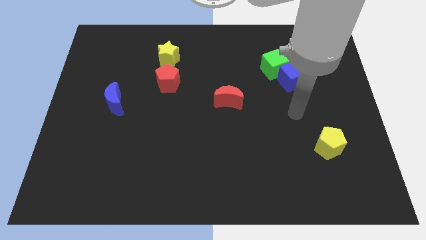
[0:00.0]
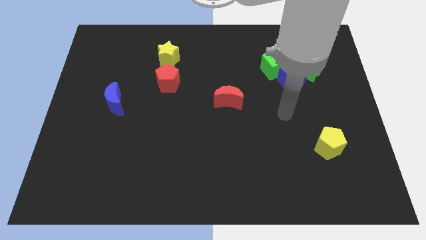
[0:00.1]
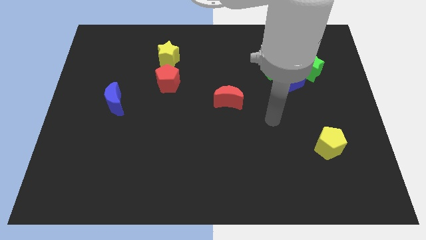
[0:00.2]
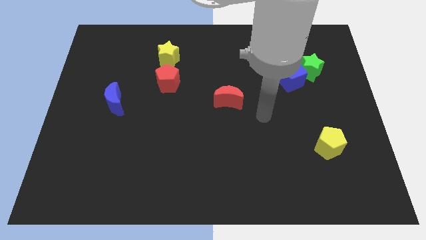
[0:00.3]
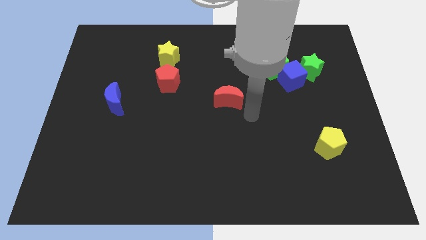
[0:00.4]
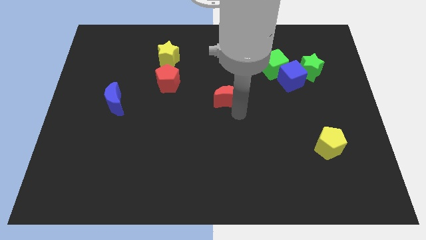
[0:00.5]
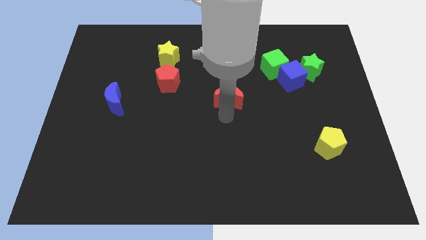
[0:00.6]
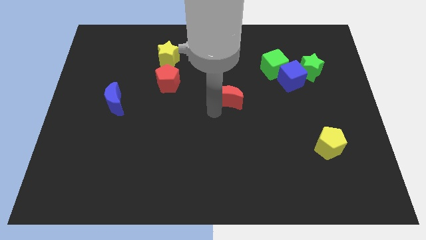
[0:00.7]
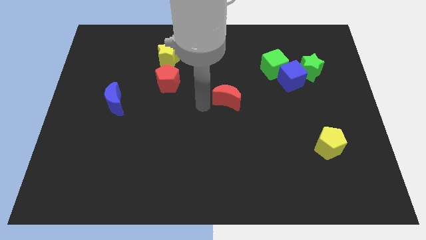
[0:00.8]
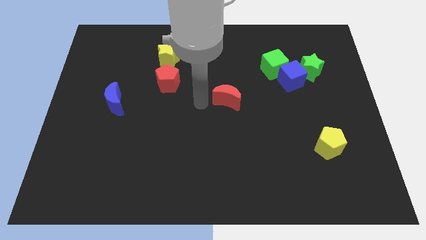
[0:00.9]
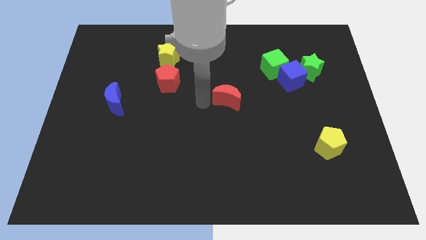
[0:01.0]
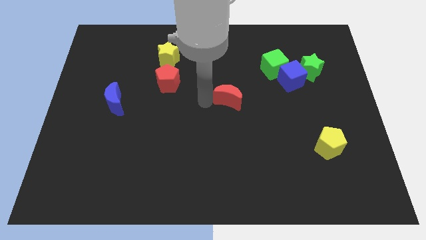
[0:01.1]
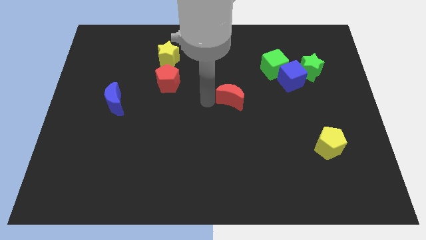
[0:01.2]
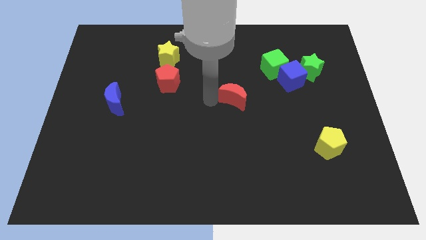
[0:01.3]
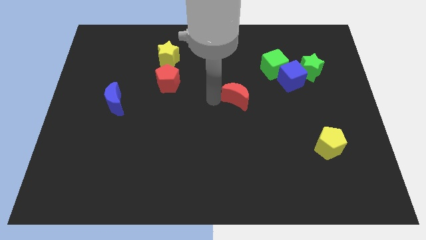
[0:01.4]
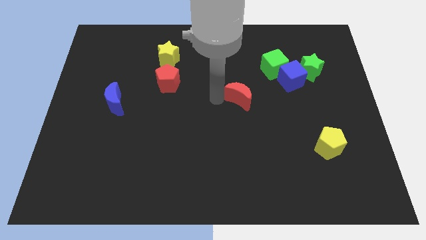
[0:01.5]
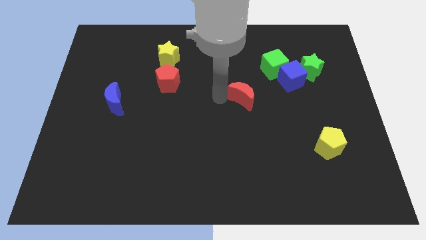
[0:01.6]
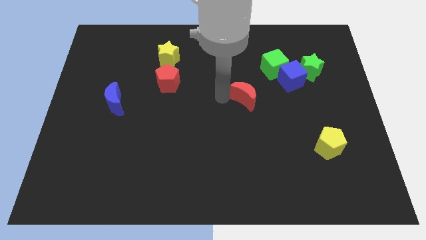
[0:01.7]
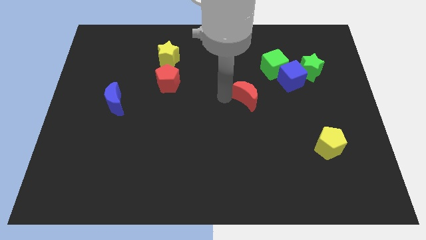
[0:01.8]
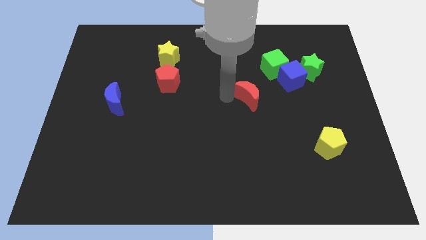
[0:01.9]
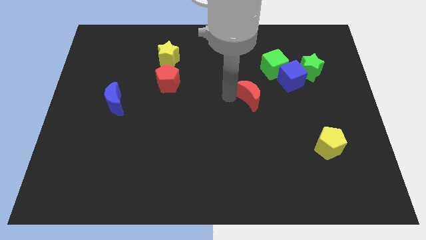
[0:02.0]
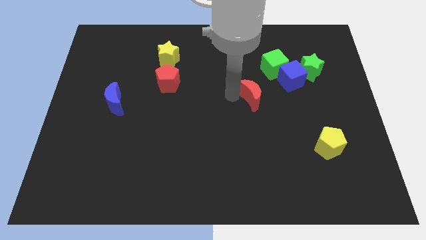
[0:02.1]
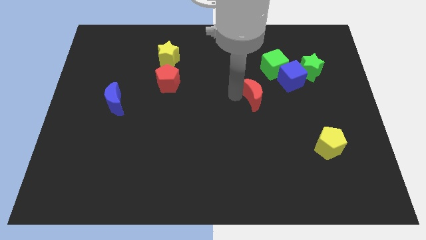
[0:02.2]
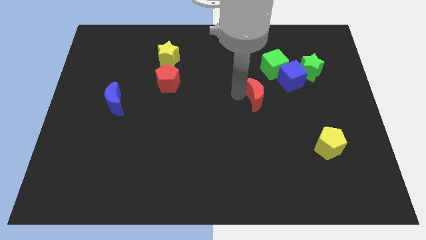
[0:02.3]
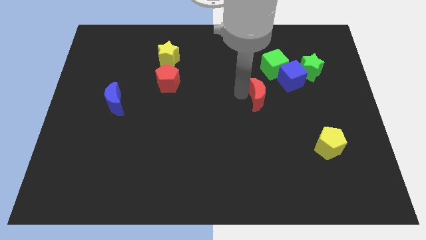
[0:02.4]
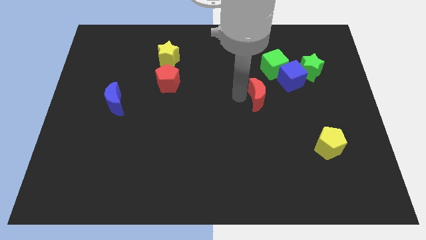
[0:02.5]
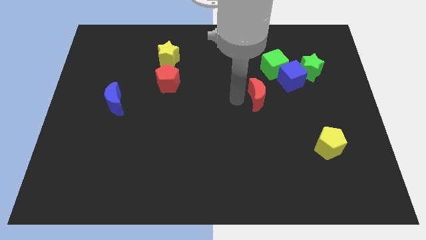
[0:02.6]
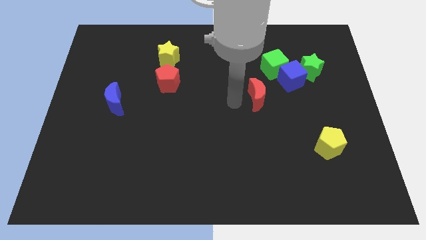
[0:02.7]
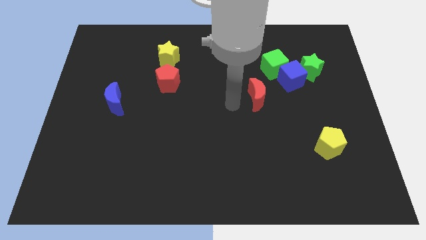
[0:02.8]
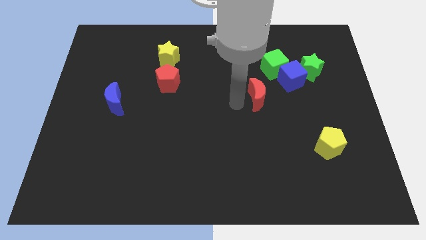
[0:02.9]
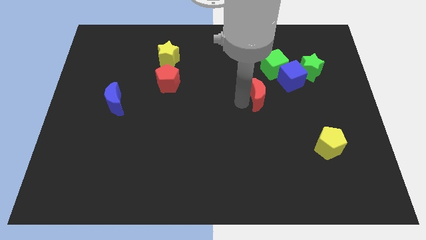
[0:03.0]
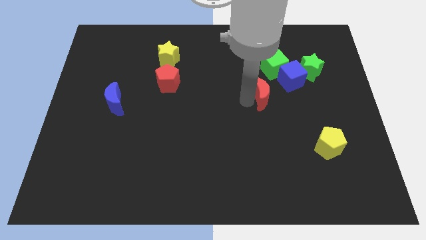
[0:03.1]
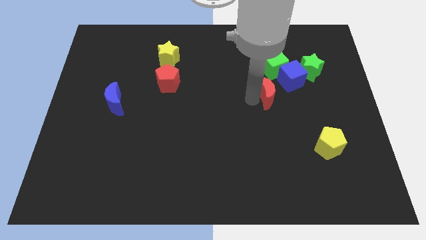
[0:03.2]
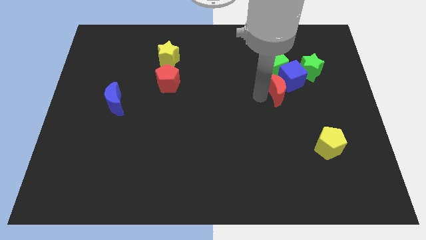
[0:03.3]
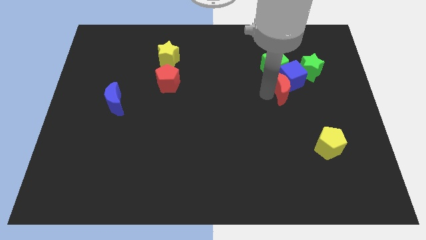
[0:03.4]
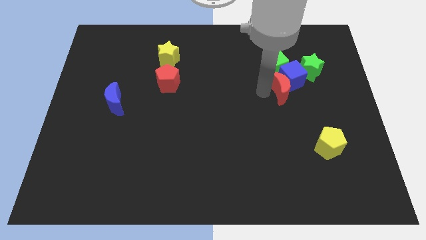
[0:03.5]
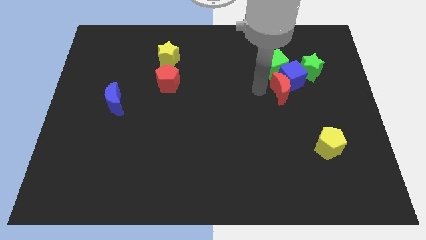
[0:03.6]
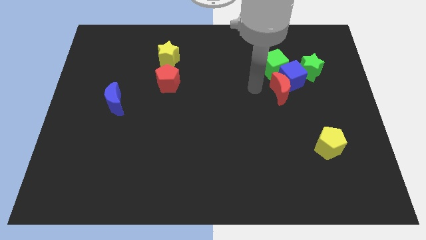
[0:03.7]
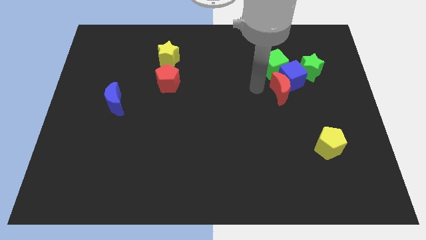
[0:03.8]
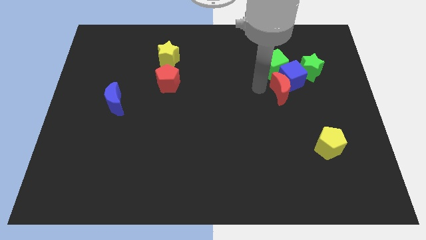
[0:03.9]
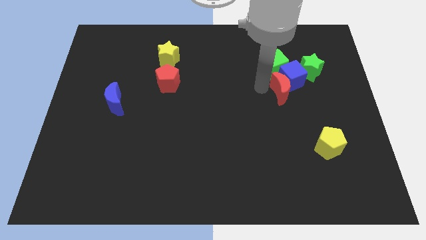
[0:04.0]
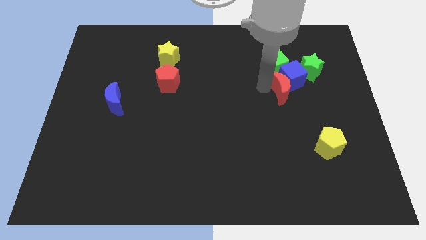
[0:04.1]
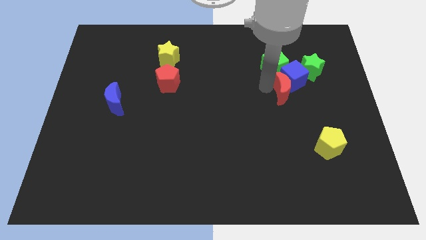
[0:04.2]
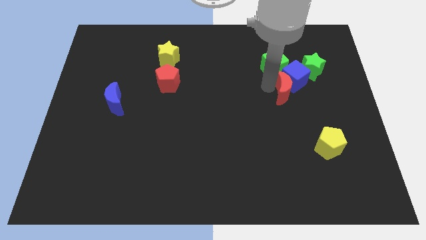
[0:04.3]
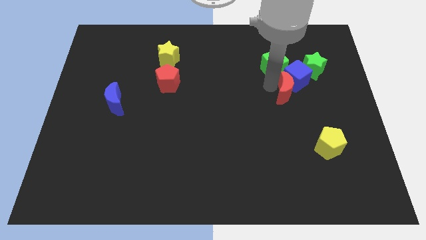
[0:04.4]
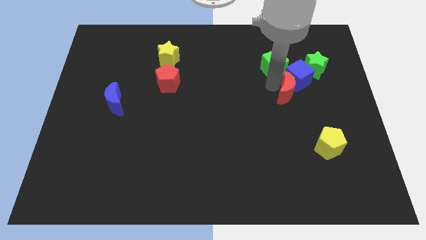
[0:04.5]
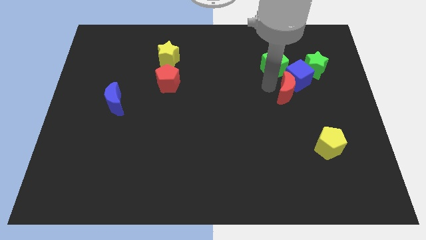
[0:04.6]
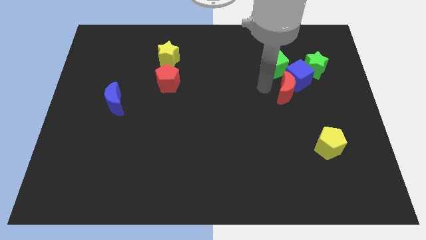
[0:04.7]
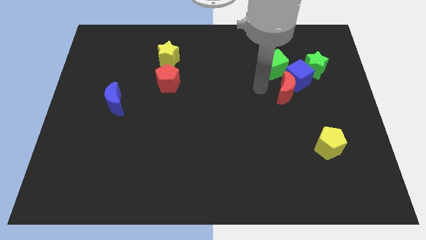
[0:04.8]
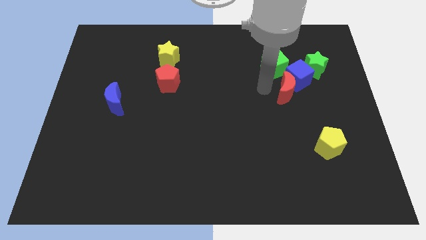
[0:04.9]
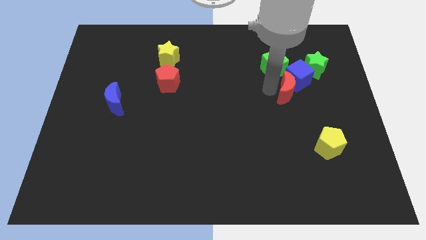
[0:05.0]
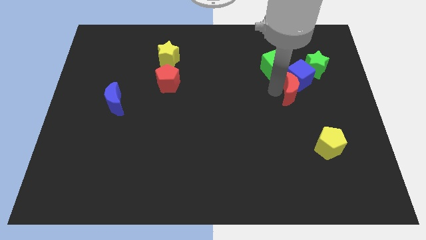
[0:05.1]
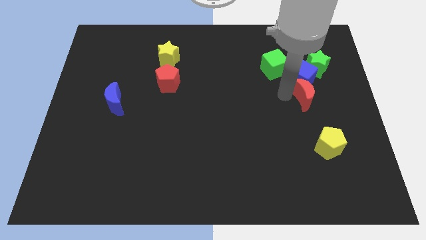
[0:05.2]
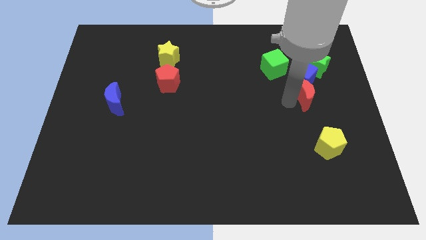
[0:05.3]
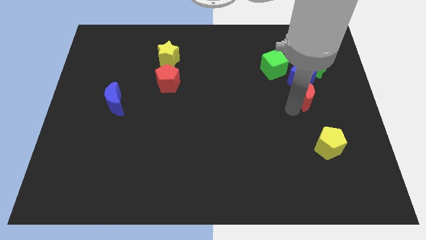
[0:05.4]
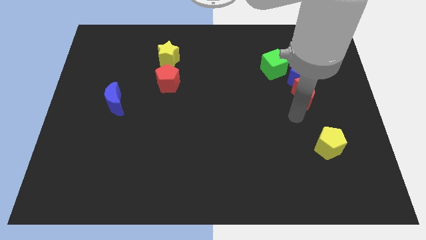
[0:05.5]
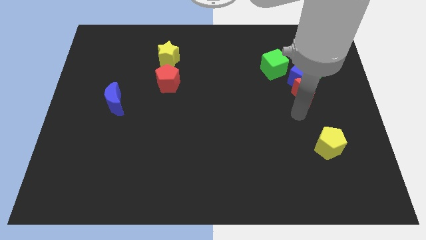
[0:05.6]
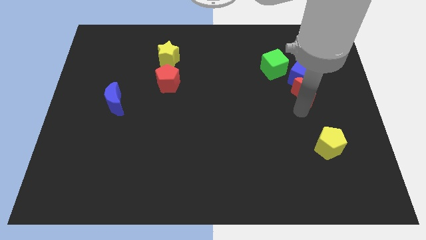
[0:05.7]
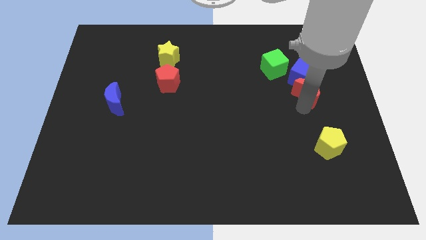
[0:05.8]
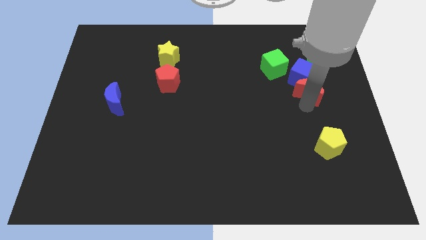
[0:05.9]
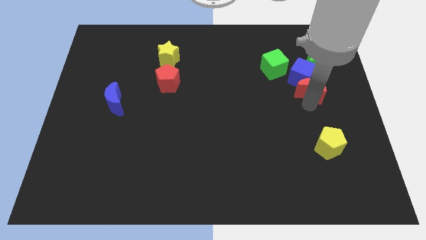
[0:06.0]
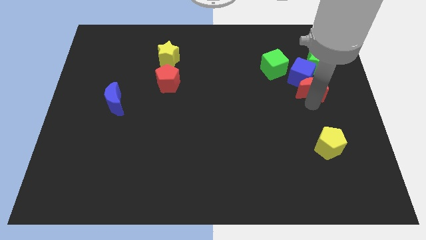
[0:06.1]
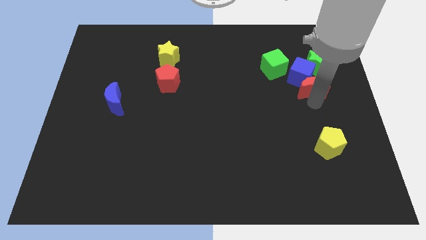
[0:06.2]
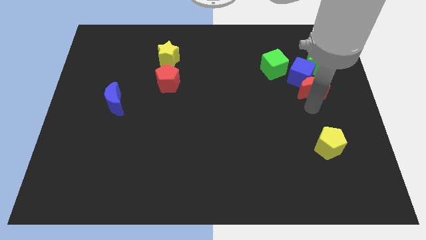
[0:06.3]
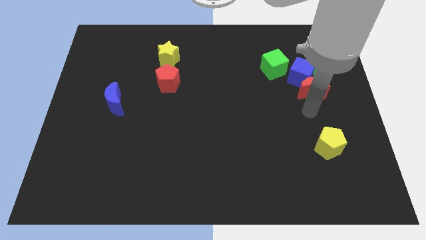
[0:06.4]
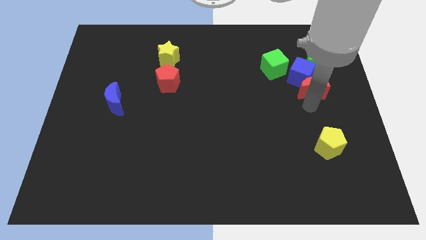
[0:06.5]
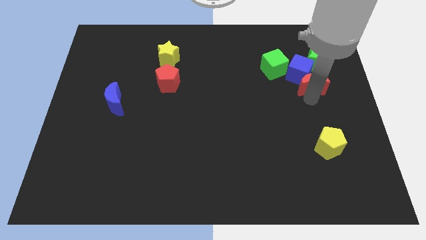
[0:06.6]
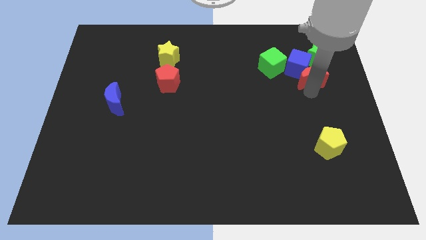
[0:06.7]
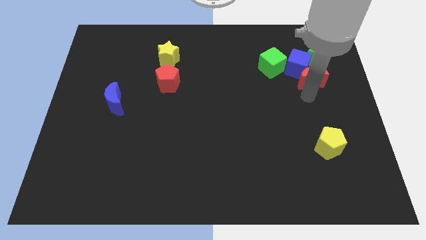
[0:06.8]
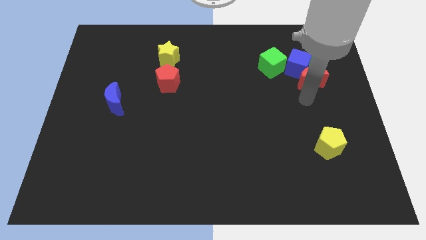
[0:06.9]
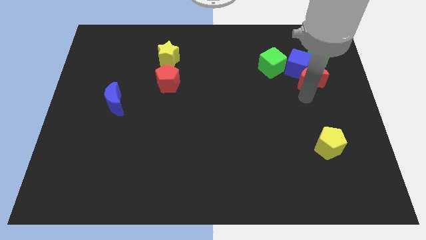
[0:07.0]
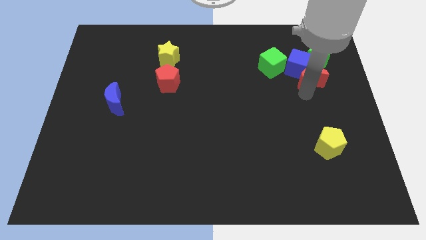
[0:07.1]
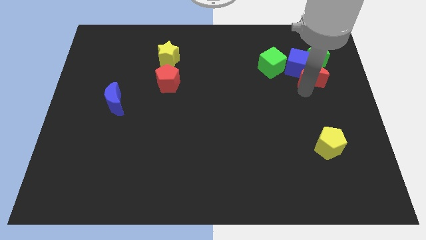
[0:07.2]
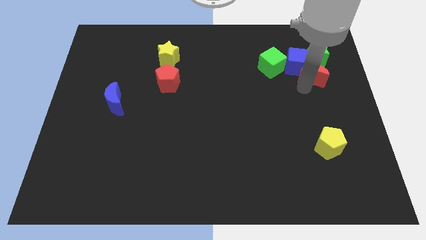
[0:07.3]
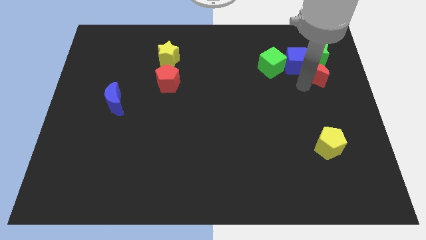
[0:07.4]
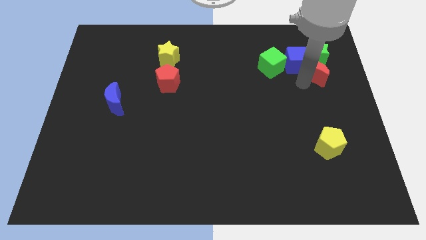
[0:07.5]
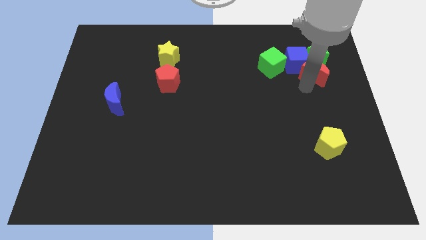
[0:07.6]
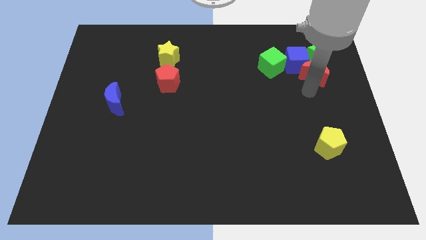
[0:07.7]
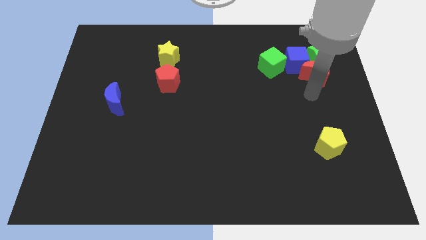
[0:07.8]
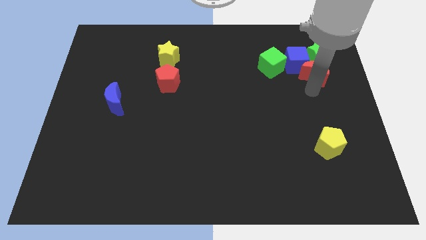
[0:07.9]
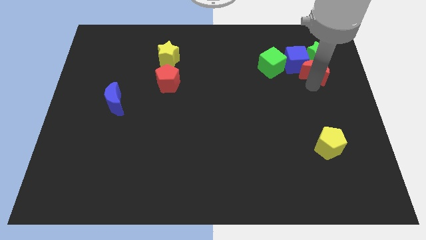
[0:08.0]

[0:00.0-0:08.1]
slide the red moon close to the green star
